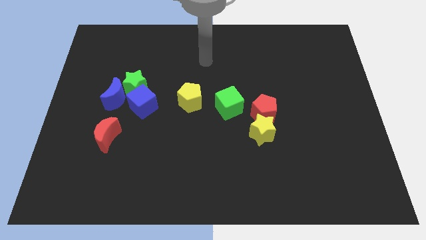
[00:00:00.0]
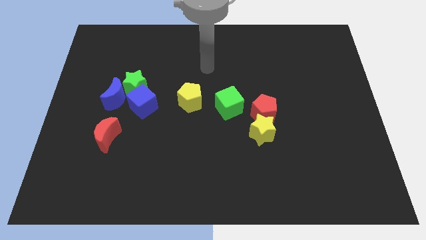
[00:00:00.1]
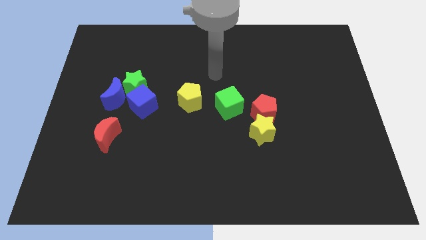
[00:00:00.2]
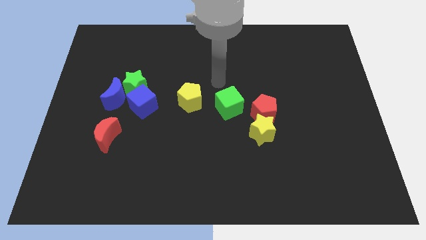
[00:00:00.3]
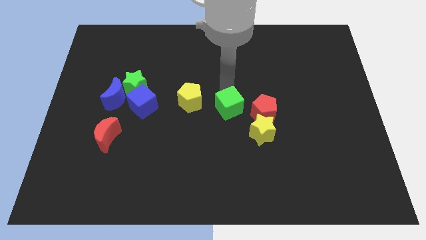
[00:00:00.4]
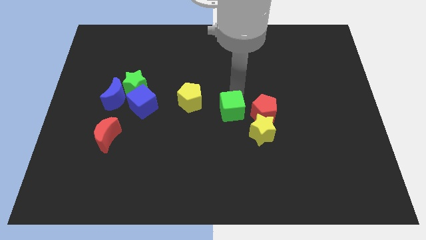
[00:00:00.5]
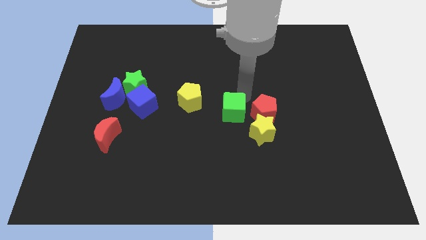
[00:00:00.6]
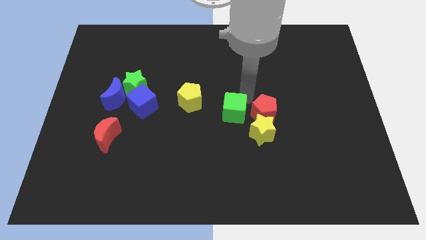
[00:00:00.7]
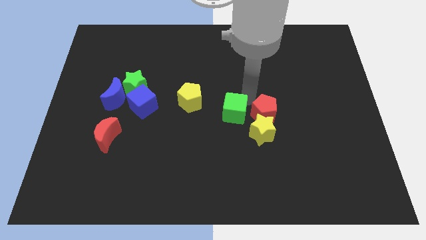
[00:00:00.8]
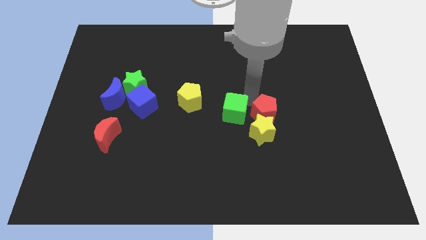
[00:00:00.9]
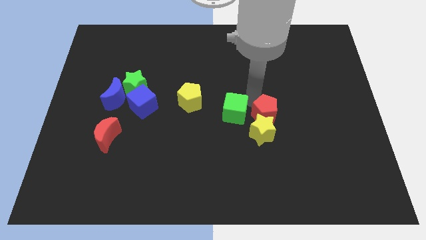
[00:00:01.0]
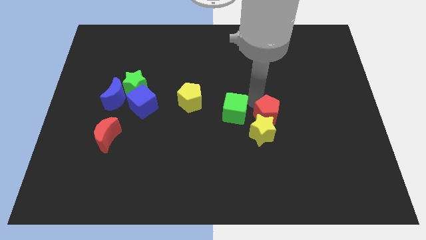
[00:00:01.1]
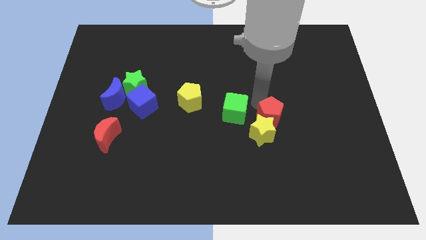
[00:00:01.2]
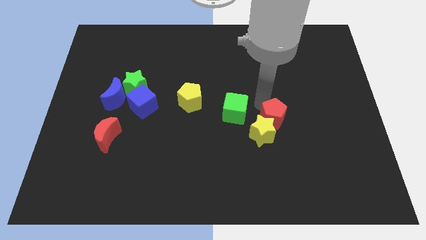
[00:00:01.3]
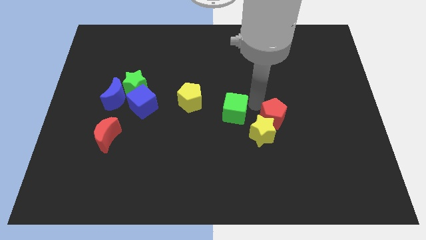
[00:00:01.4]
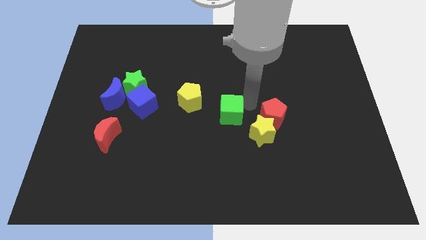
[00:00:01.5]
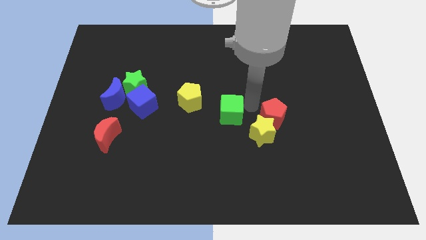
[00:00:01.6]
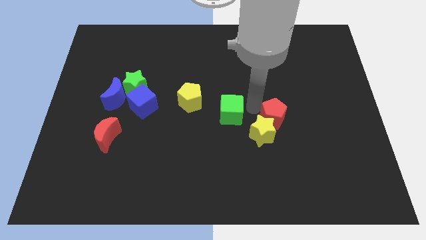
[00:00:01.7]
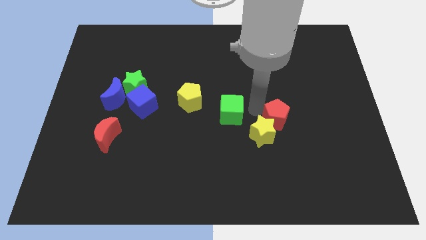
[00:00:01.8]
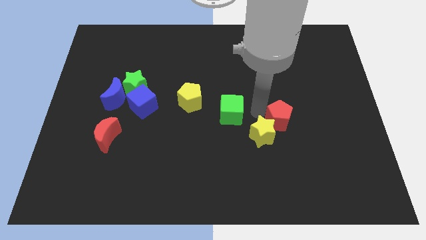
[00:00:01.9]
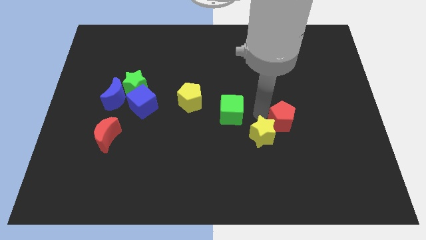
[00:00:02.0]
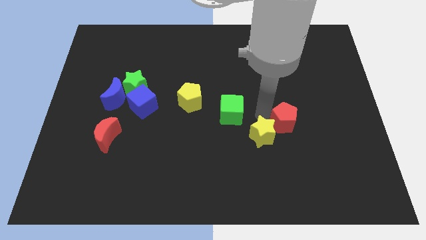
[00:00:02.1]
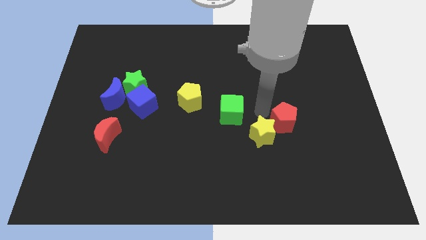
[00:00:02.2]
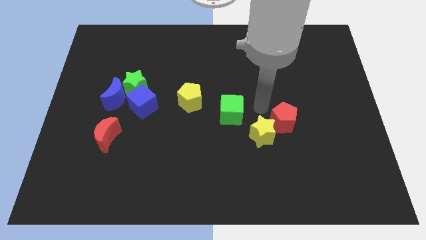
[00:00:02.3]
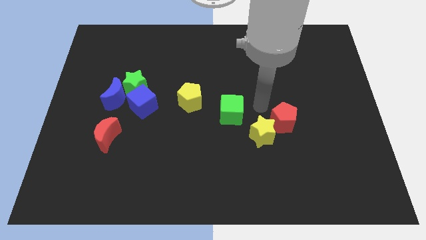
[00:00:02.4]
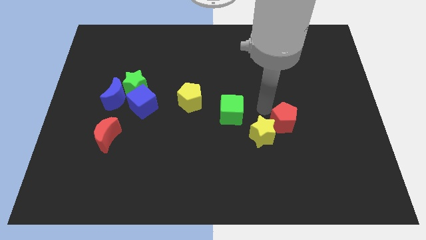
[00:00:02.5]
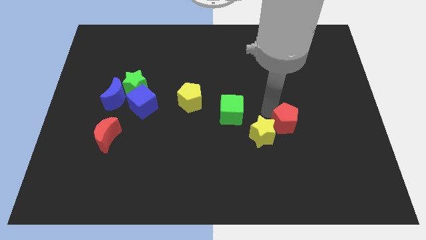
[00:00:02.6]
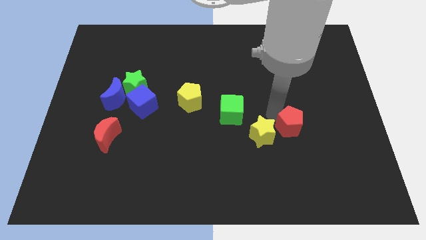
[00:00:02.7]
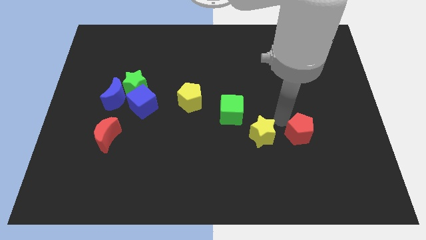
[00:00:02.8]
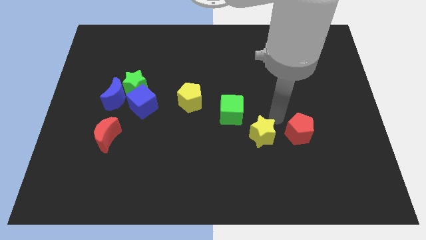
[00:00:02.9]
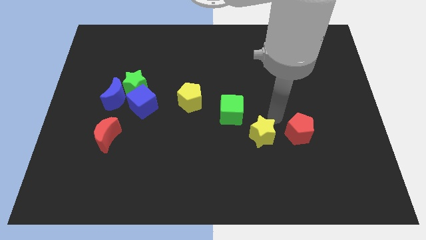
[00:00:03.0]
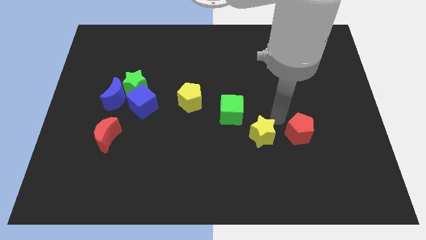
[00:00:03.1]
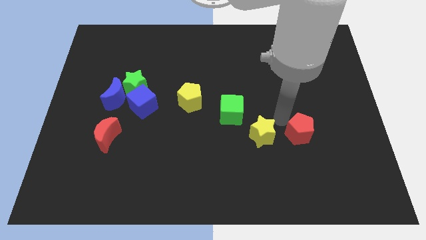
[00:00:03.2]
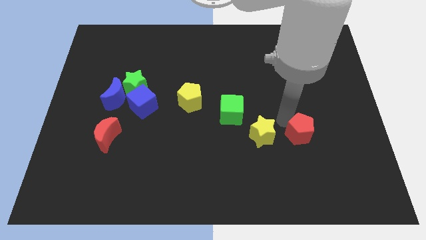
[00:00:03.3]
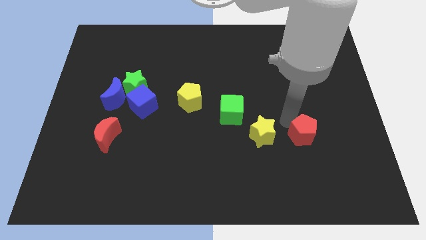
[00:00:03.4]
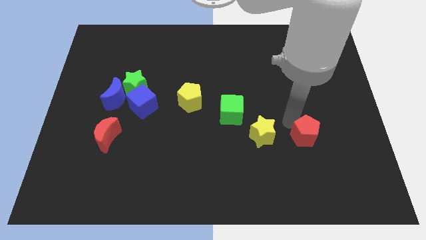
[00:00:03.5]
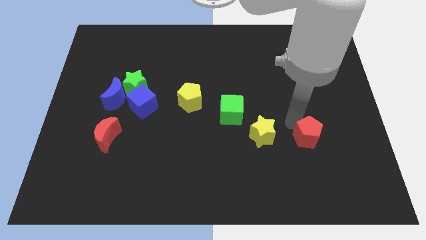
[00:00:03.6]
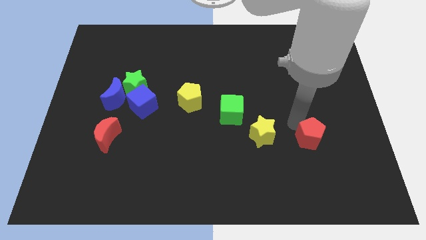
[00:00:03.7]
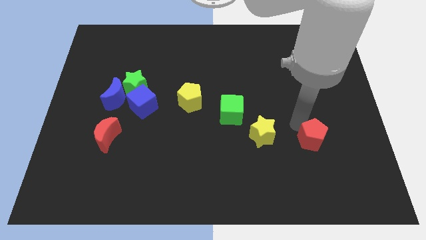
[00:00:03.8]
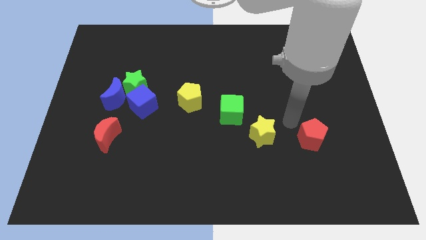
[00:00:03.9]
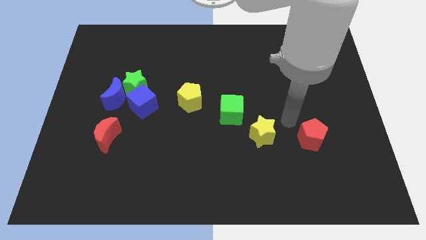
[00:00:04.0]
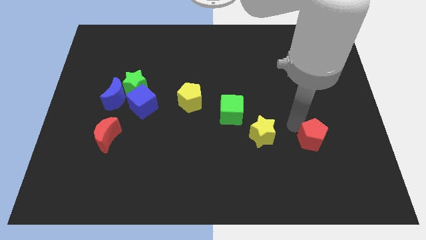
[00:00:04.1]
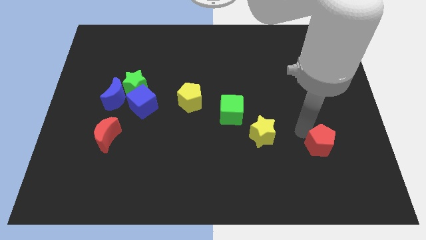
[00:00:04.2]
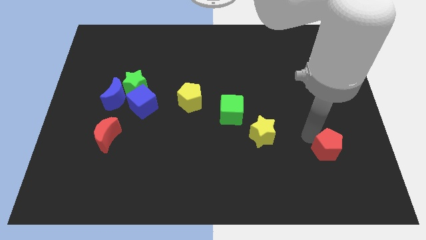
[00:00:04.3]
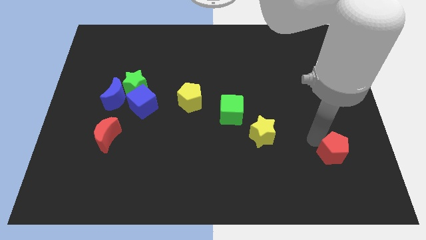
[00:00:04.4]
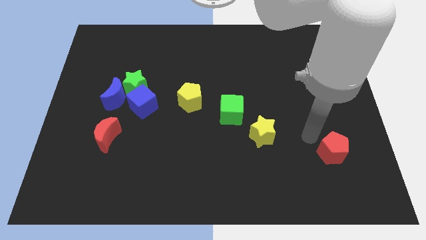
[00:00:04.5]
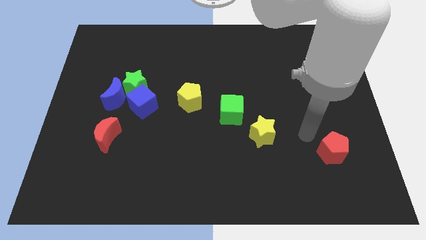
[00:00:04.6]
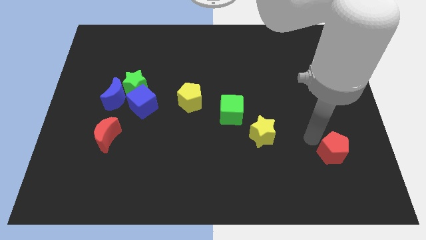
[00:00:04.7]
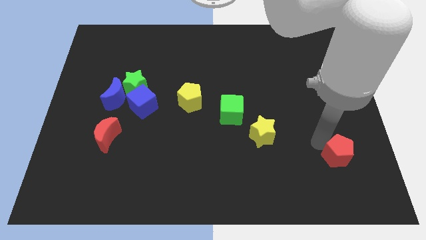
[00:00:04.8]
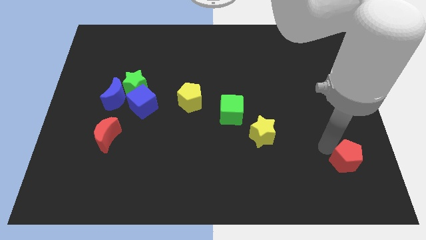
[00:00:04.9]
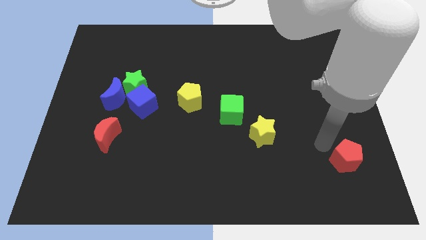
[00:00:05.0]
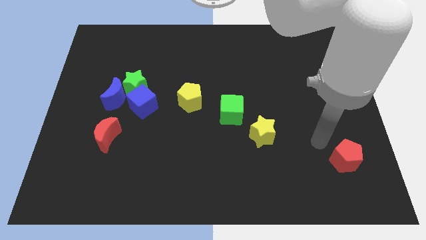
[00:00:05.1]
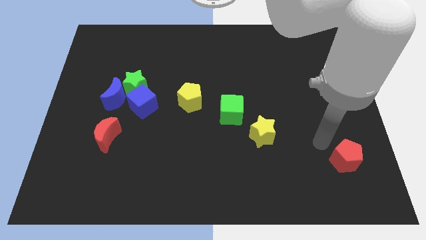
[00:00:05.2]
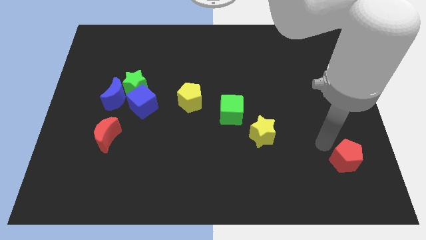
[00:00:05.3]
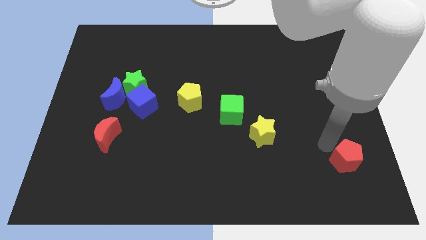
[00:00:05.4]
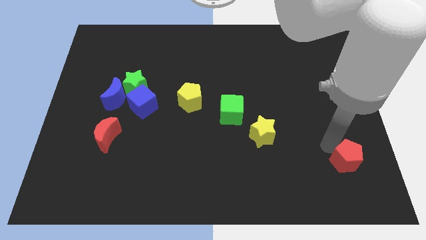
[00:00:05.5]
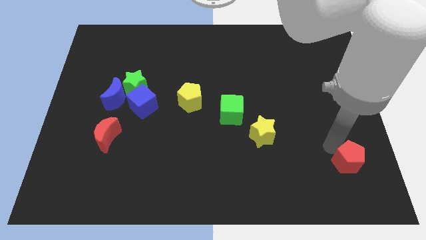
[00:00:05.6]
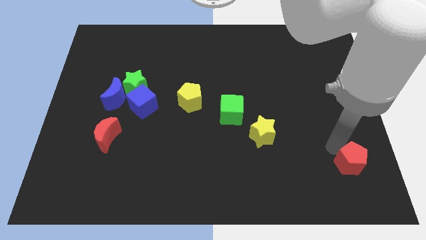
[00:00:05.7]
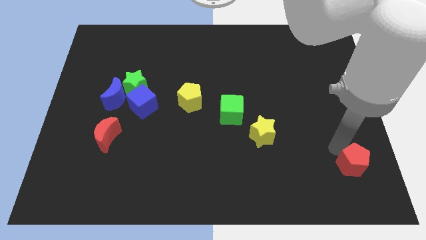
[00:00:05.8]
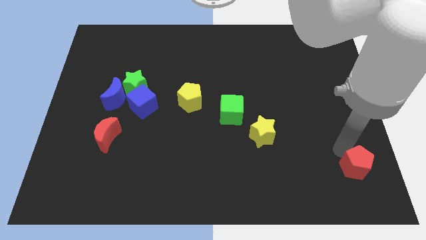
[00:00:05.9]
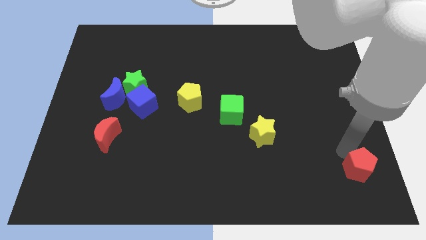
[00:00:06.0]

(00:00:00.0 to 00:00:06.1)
put the red pentagon to the lower right corner
